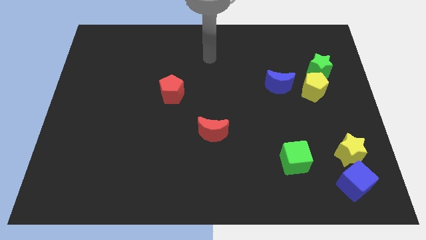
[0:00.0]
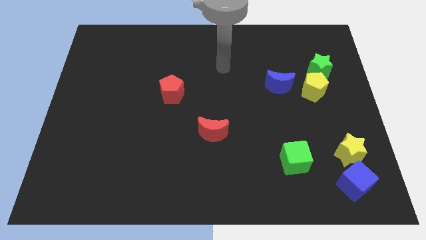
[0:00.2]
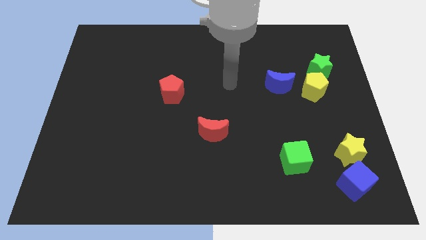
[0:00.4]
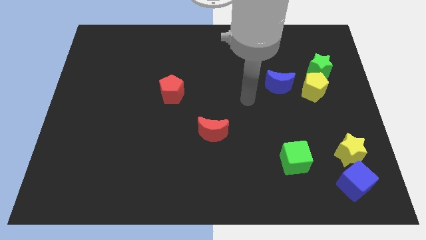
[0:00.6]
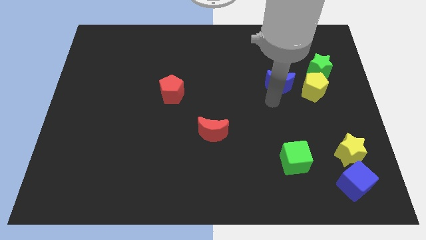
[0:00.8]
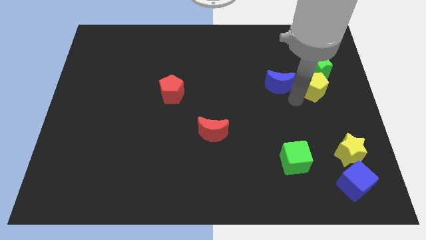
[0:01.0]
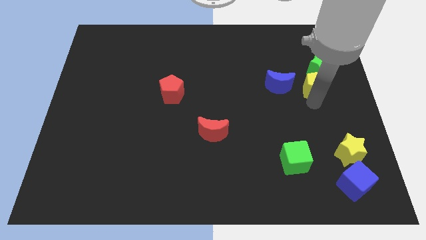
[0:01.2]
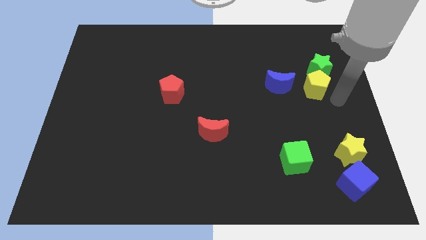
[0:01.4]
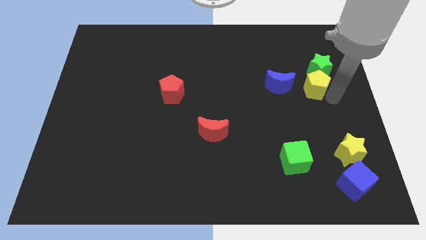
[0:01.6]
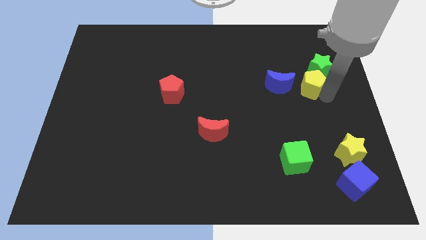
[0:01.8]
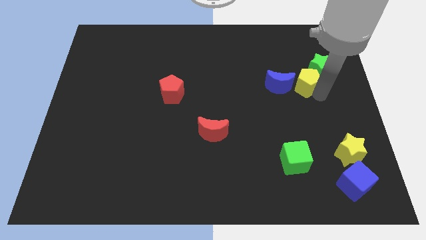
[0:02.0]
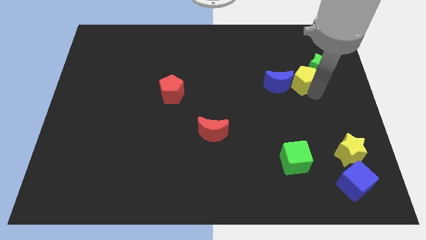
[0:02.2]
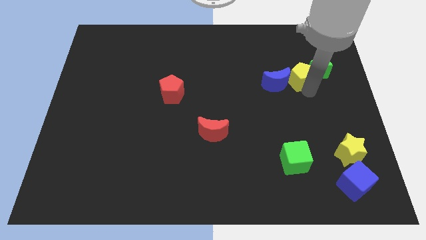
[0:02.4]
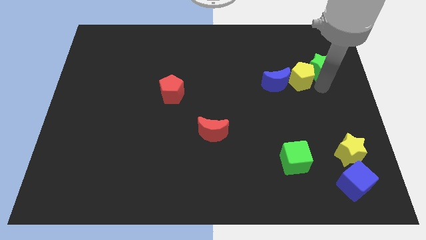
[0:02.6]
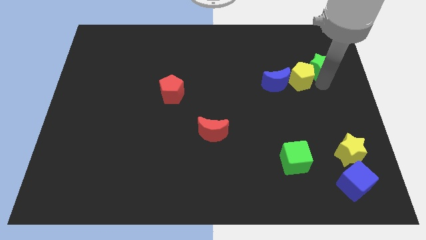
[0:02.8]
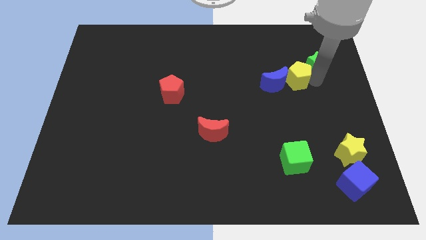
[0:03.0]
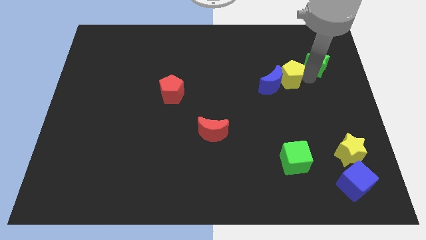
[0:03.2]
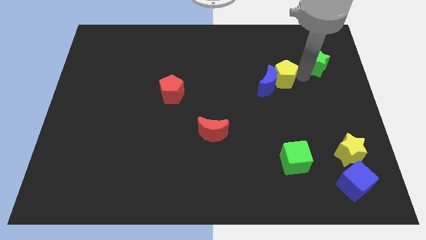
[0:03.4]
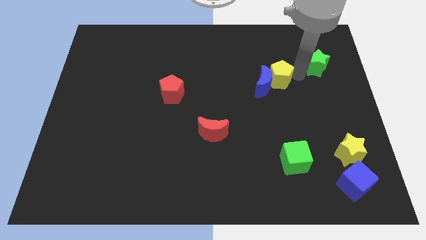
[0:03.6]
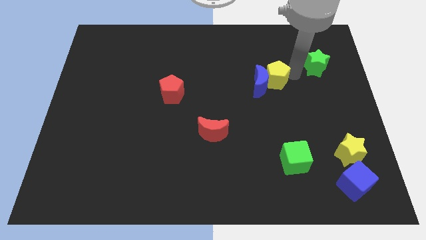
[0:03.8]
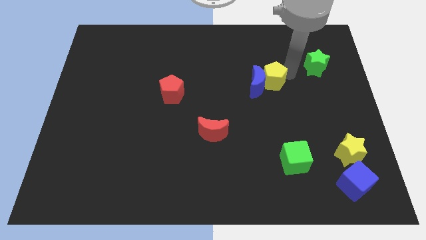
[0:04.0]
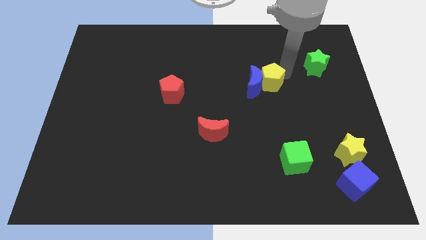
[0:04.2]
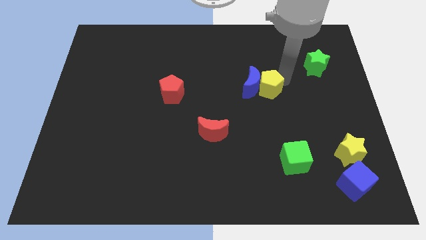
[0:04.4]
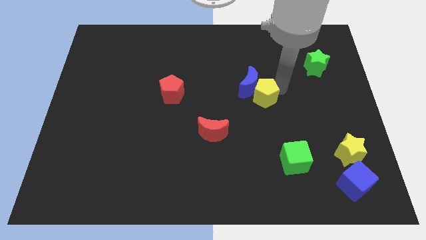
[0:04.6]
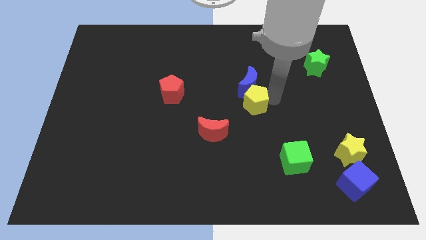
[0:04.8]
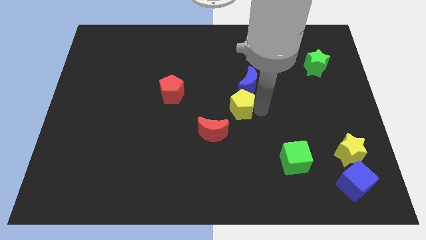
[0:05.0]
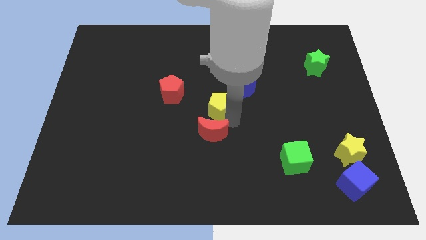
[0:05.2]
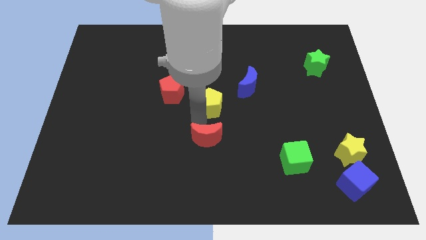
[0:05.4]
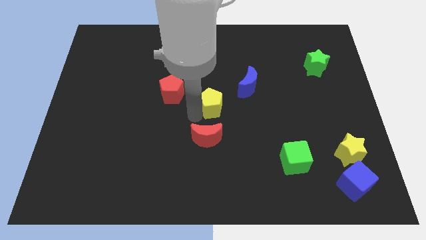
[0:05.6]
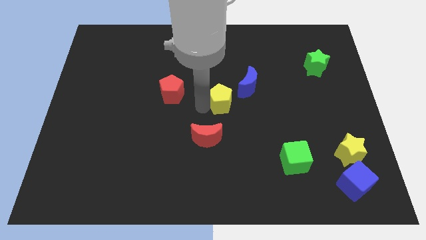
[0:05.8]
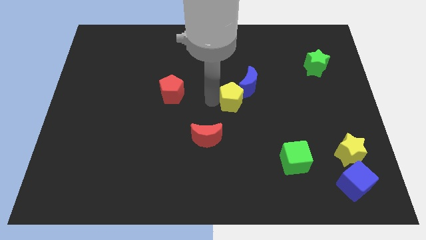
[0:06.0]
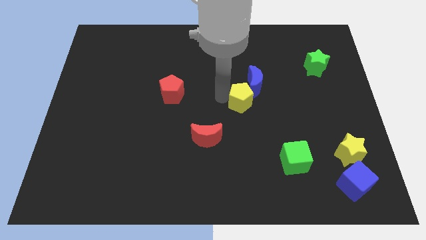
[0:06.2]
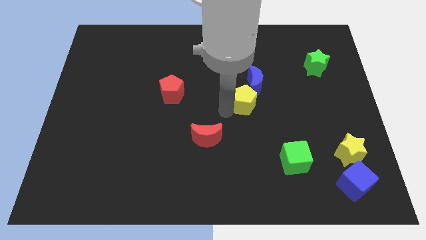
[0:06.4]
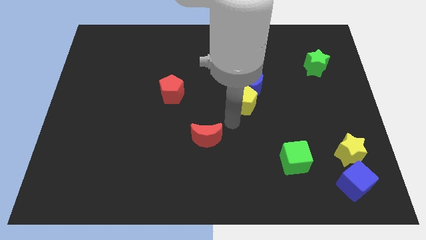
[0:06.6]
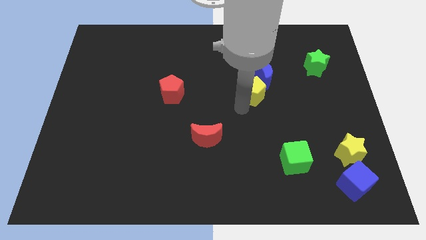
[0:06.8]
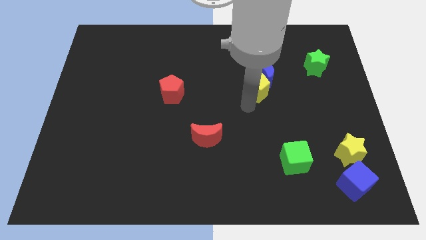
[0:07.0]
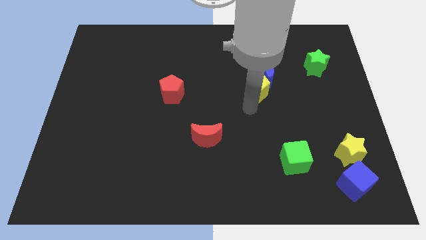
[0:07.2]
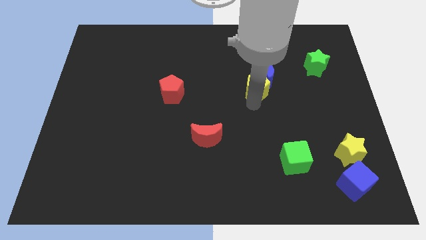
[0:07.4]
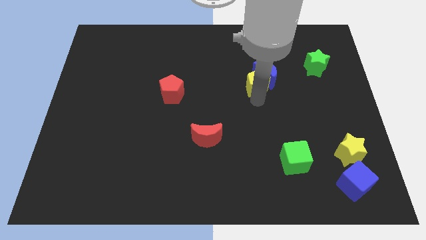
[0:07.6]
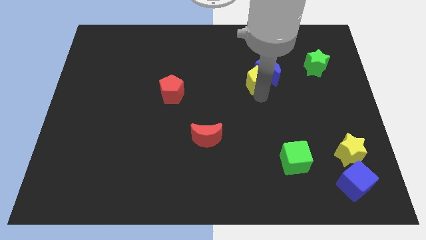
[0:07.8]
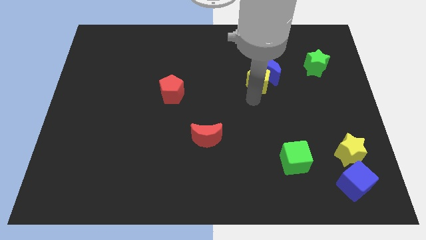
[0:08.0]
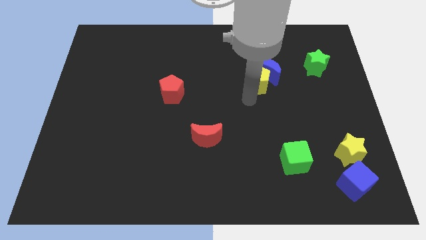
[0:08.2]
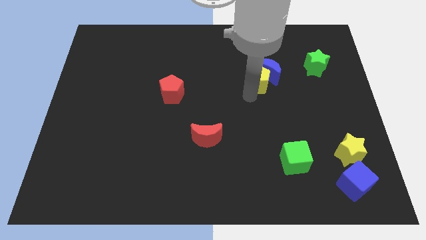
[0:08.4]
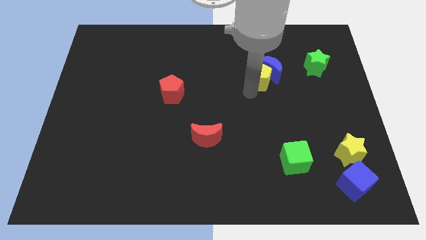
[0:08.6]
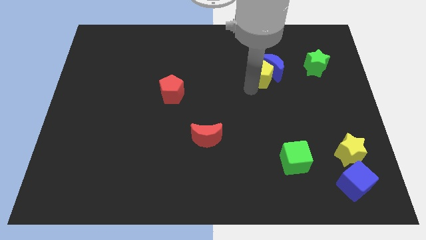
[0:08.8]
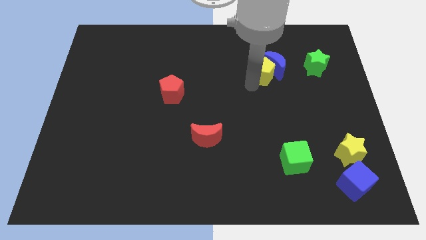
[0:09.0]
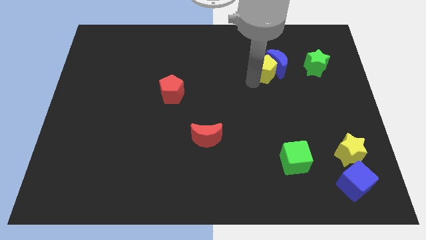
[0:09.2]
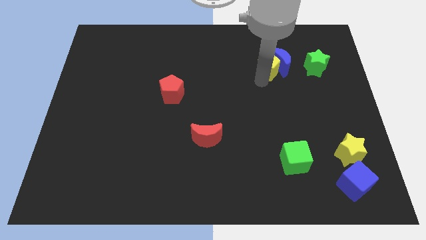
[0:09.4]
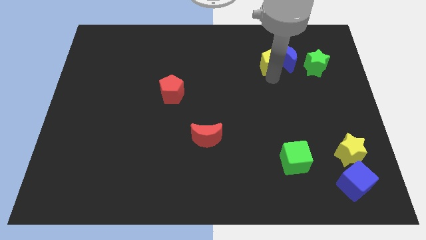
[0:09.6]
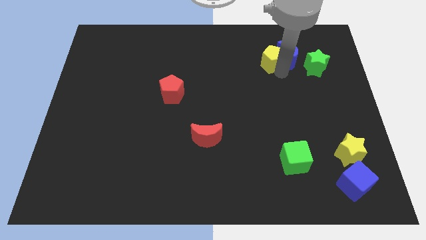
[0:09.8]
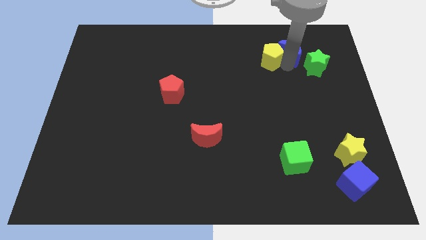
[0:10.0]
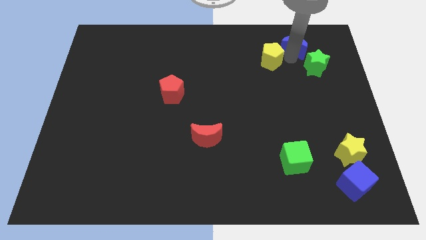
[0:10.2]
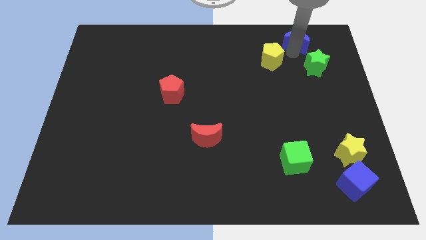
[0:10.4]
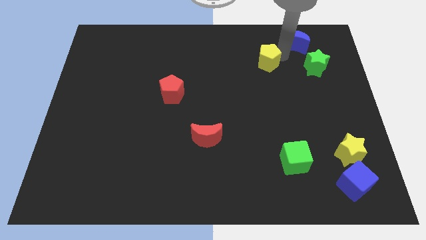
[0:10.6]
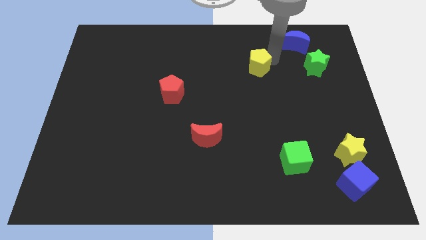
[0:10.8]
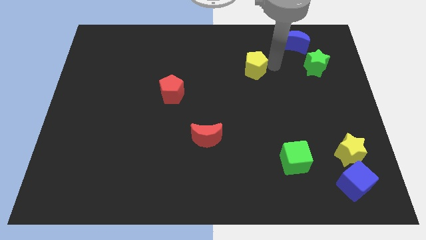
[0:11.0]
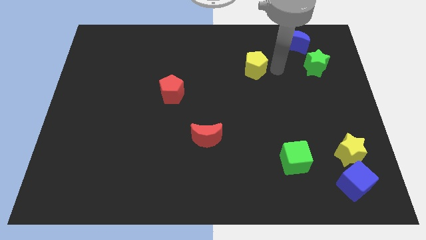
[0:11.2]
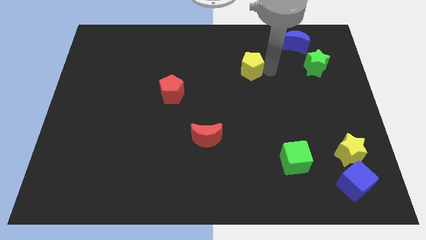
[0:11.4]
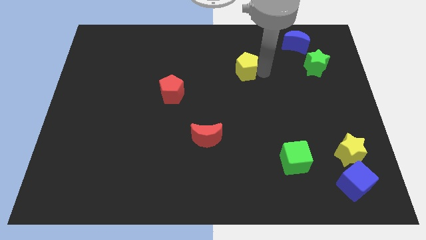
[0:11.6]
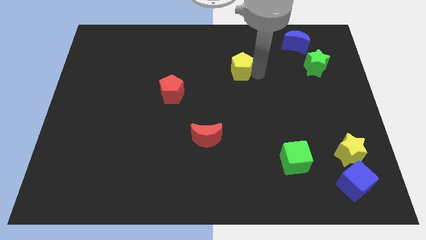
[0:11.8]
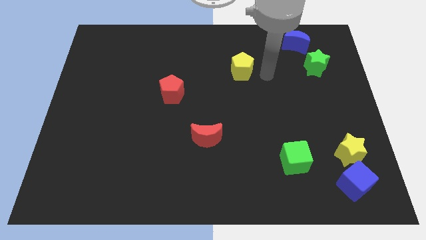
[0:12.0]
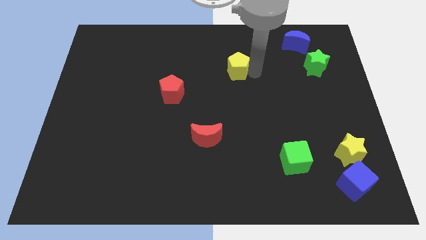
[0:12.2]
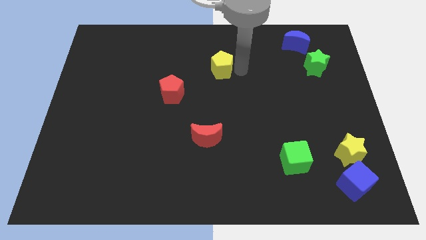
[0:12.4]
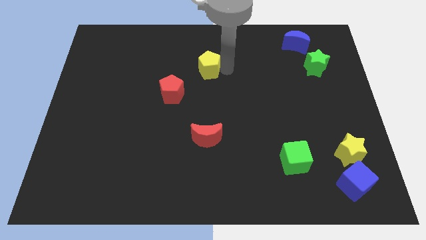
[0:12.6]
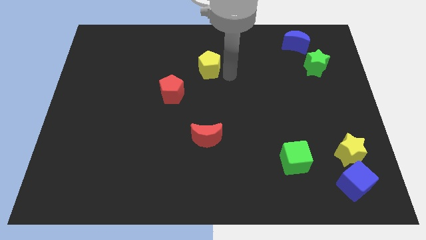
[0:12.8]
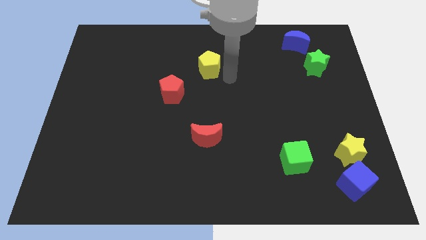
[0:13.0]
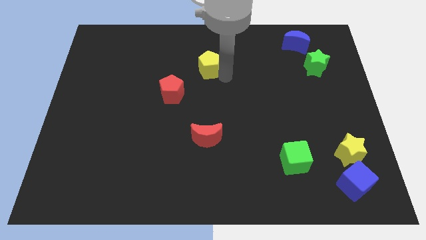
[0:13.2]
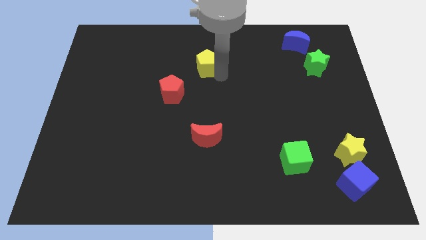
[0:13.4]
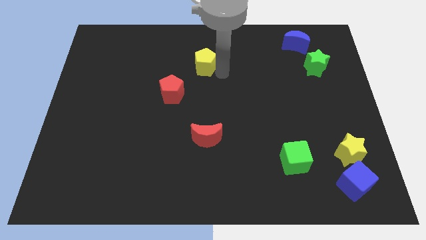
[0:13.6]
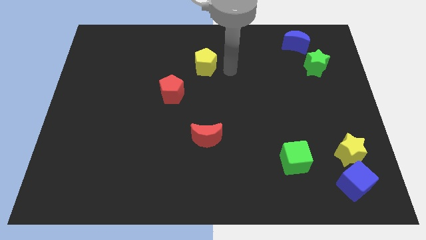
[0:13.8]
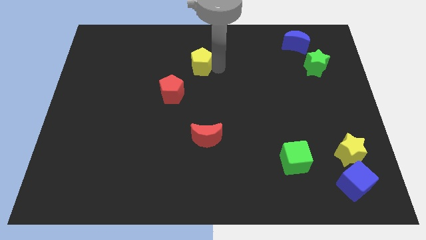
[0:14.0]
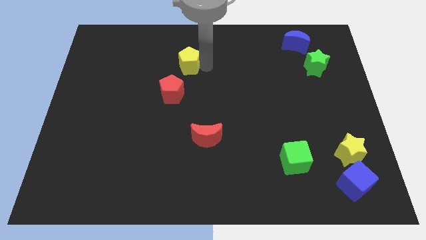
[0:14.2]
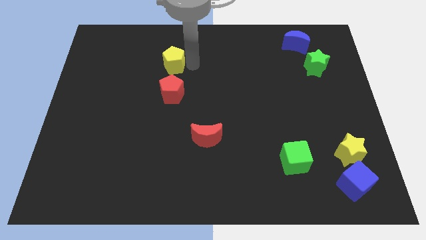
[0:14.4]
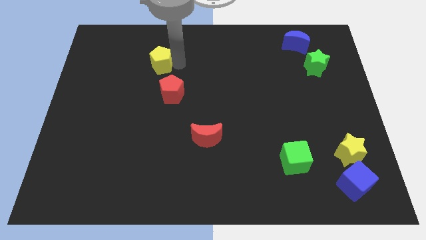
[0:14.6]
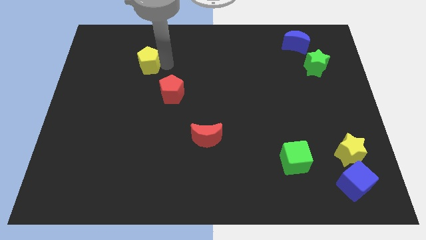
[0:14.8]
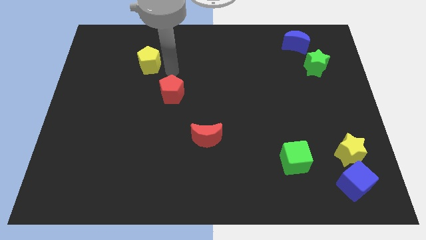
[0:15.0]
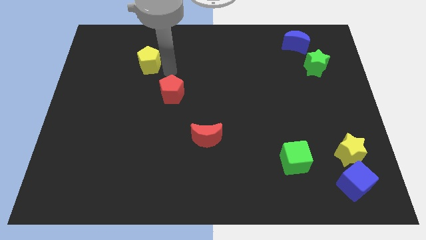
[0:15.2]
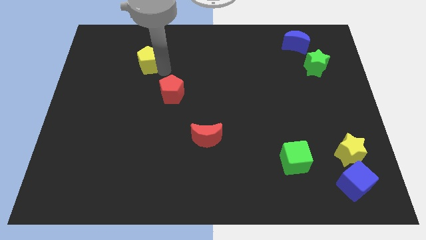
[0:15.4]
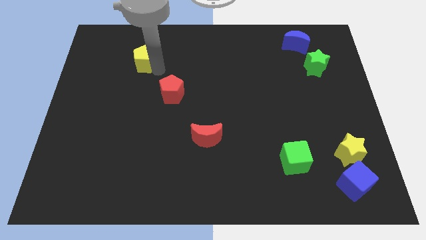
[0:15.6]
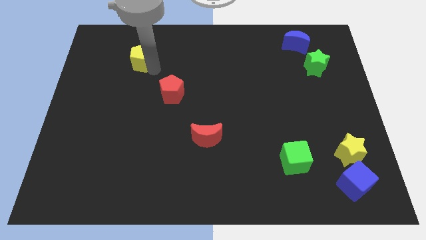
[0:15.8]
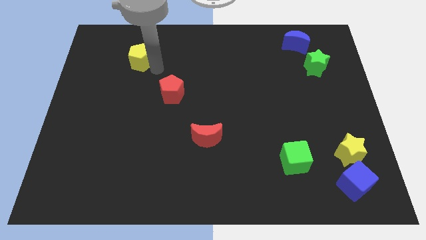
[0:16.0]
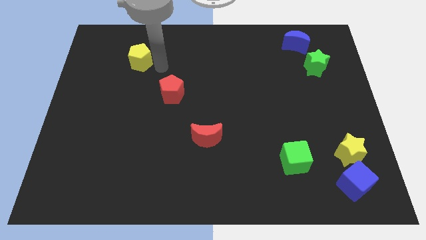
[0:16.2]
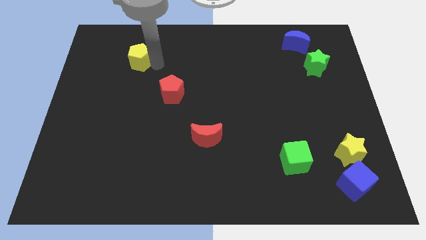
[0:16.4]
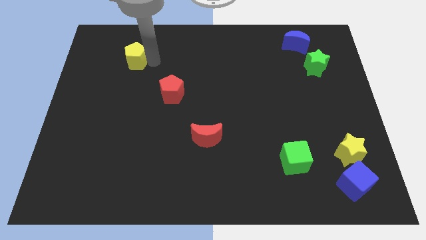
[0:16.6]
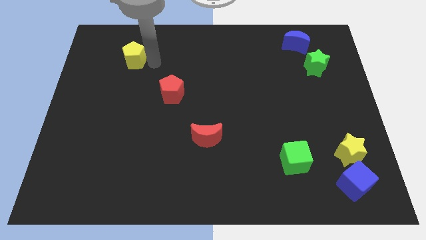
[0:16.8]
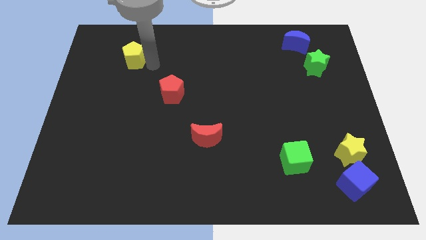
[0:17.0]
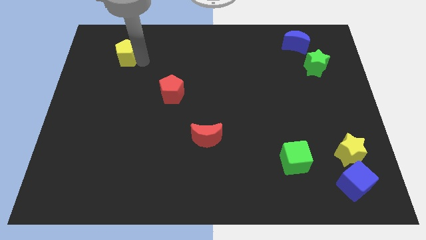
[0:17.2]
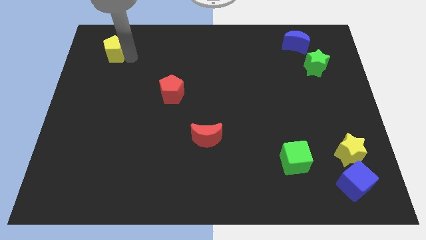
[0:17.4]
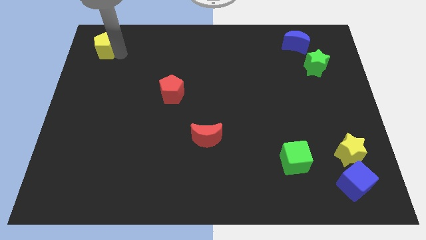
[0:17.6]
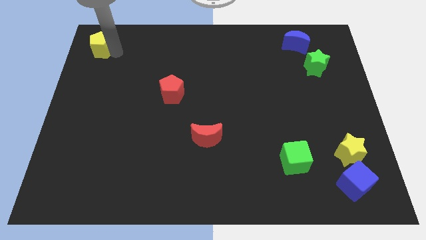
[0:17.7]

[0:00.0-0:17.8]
move the yellow pentagon to the upper left corner
